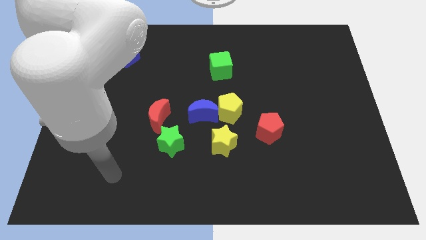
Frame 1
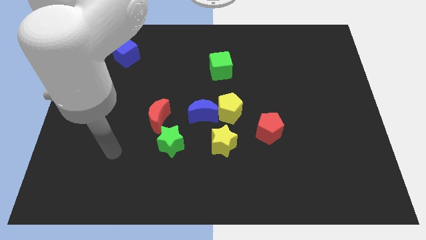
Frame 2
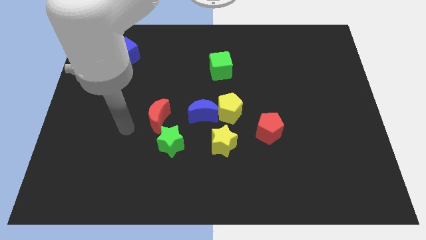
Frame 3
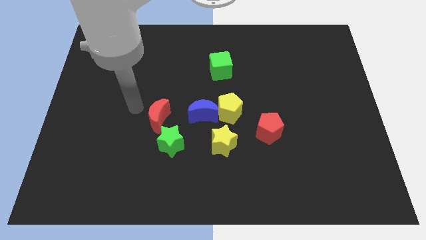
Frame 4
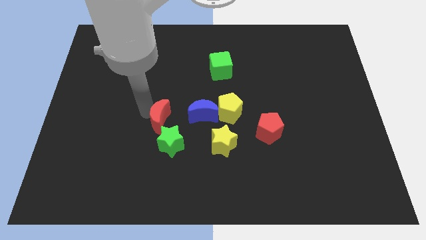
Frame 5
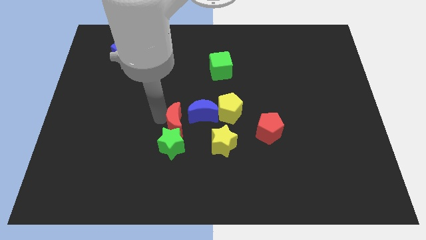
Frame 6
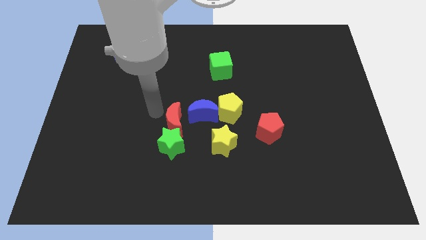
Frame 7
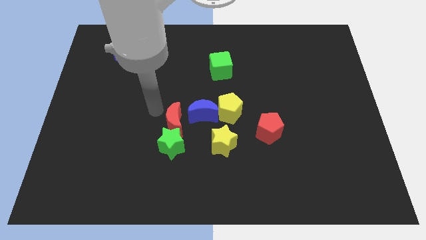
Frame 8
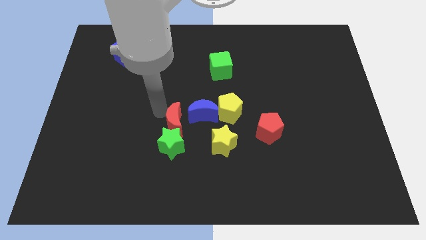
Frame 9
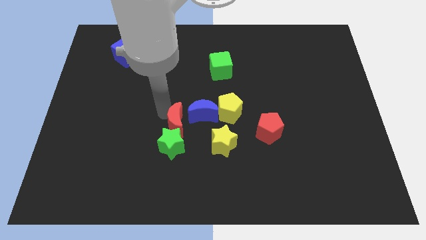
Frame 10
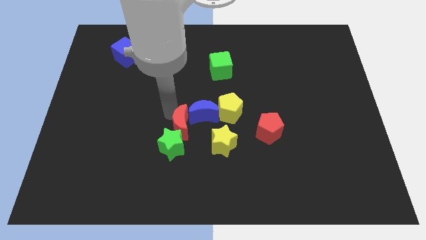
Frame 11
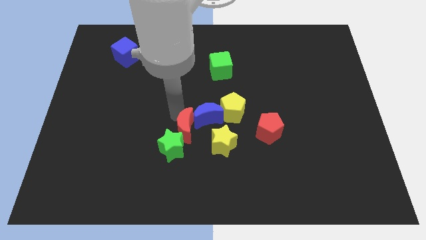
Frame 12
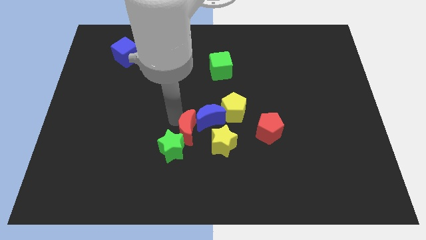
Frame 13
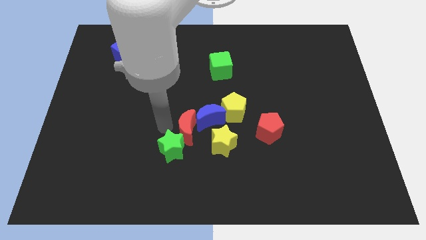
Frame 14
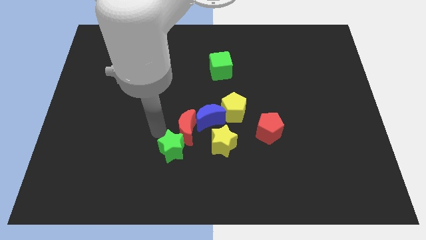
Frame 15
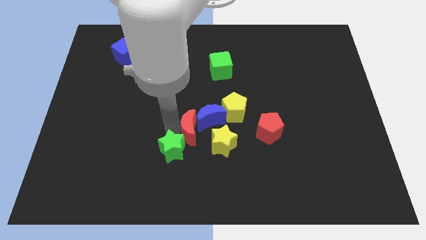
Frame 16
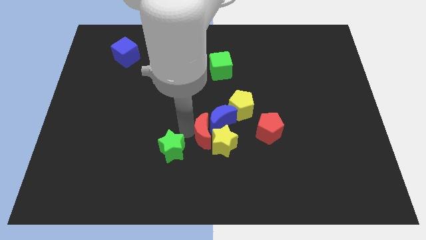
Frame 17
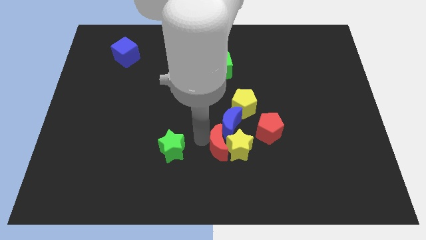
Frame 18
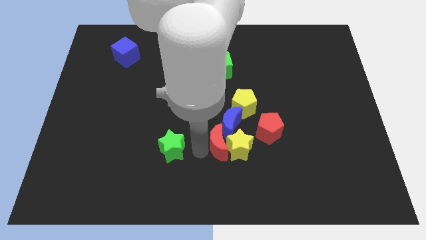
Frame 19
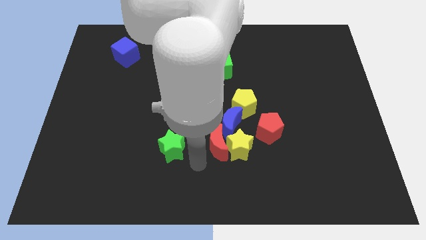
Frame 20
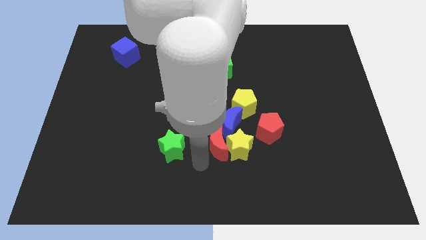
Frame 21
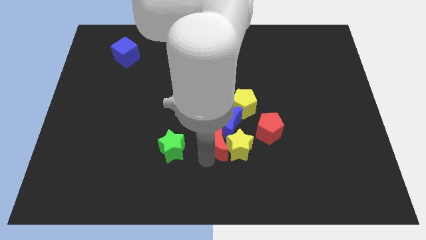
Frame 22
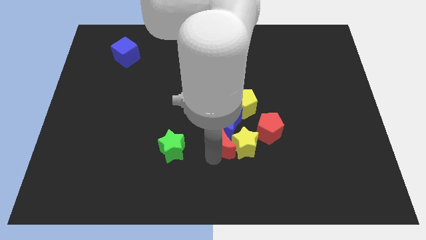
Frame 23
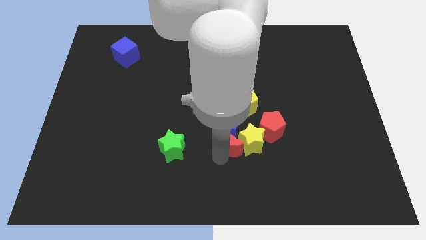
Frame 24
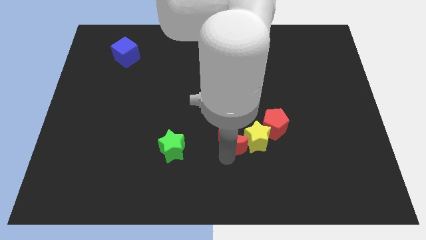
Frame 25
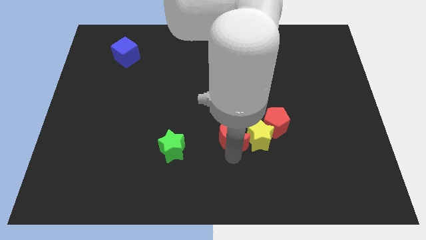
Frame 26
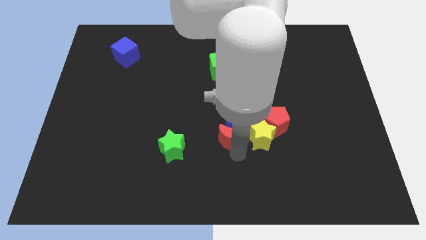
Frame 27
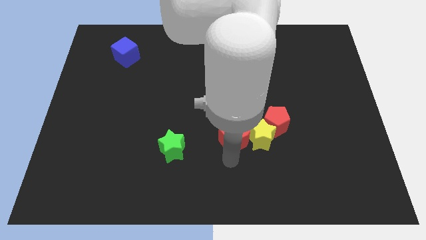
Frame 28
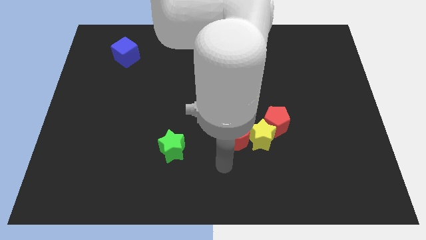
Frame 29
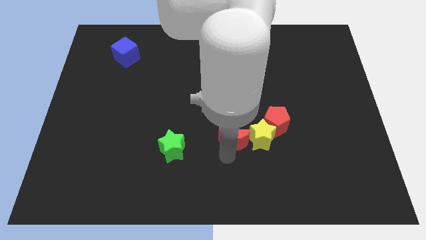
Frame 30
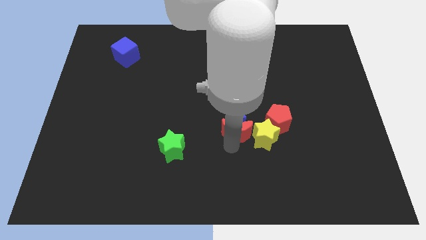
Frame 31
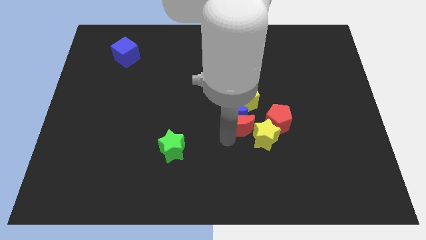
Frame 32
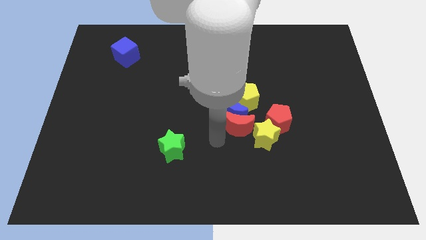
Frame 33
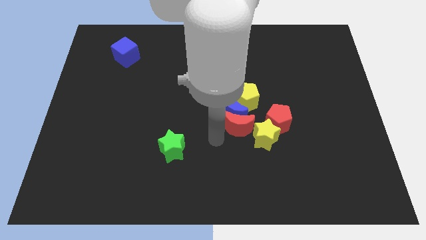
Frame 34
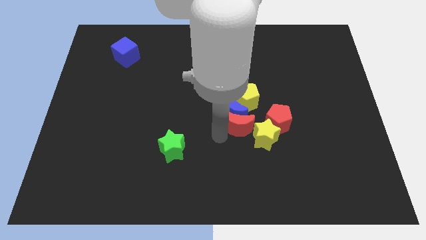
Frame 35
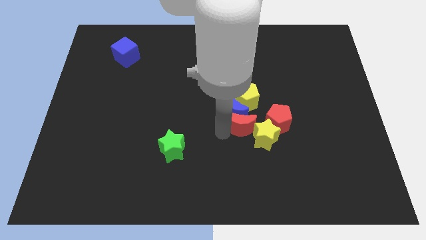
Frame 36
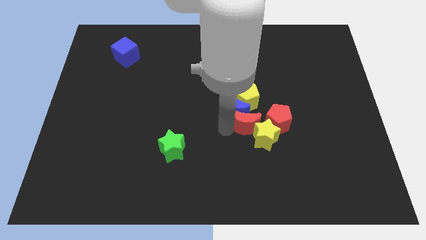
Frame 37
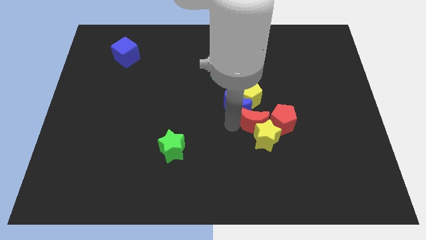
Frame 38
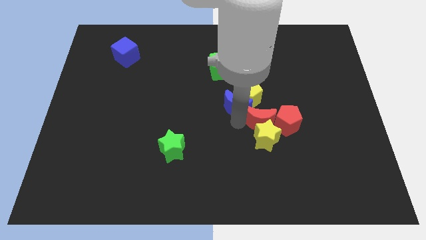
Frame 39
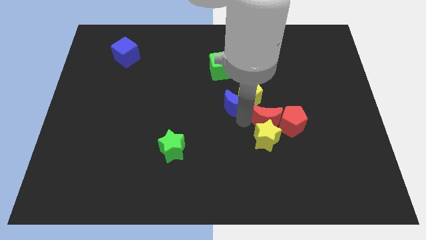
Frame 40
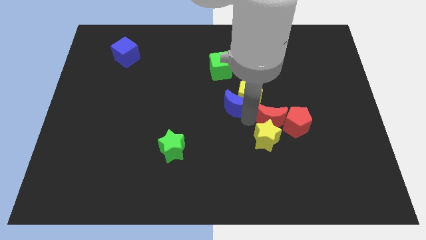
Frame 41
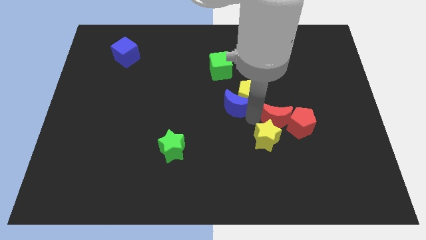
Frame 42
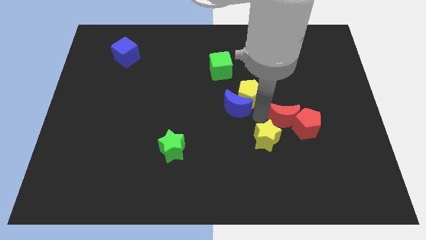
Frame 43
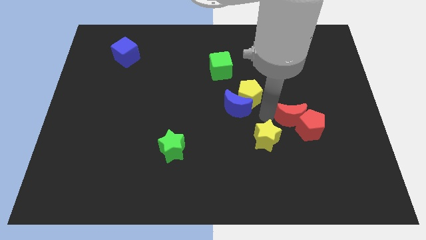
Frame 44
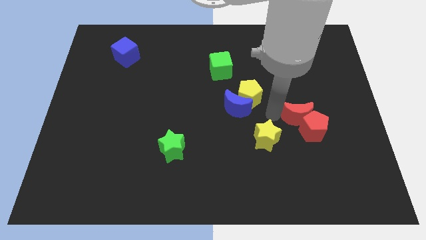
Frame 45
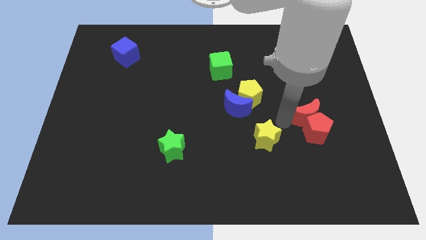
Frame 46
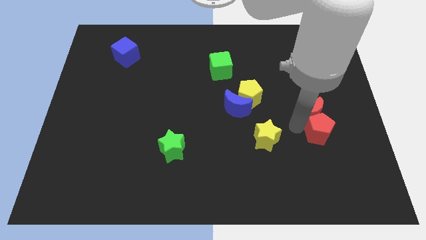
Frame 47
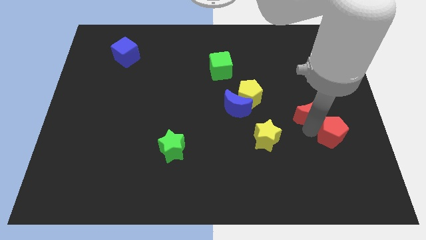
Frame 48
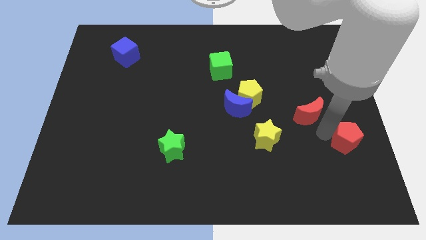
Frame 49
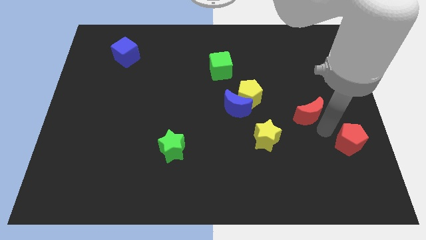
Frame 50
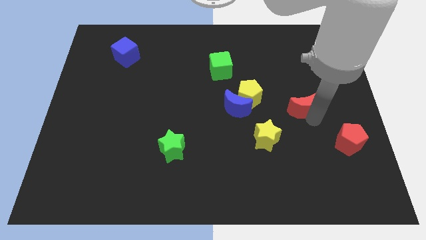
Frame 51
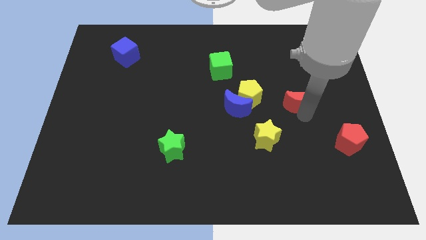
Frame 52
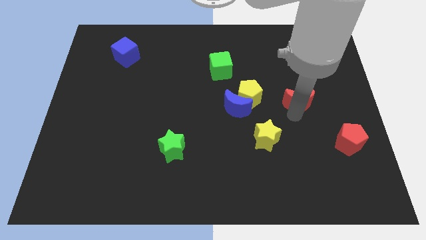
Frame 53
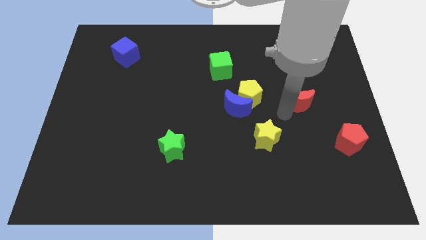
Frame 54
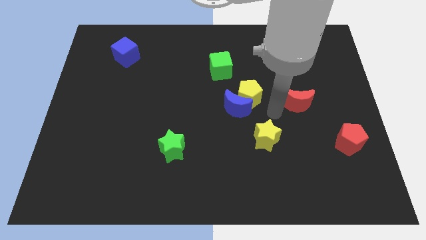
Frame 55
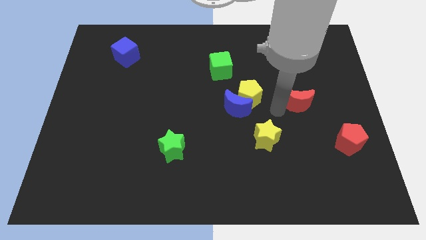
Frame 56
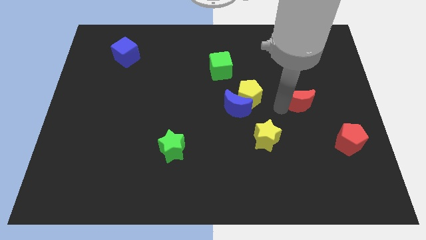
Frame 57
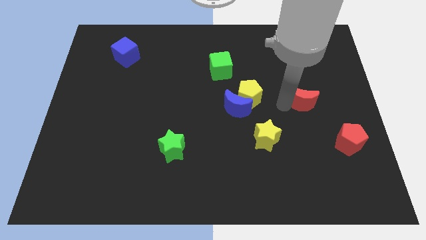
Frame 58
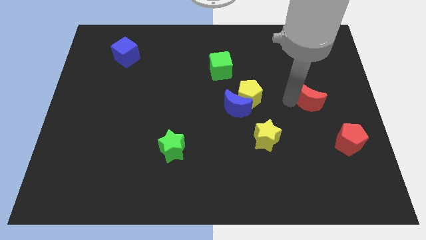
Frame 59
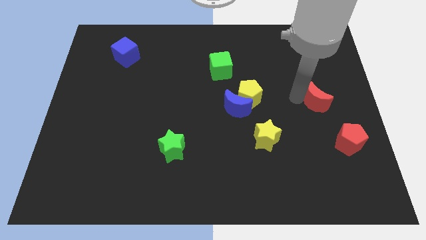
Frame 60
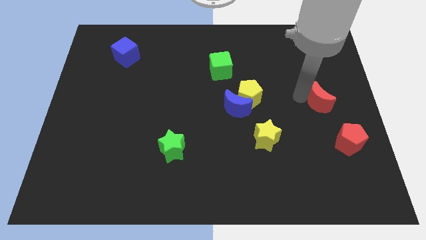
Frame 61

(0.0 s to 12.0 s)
slide the red moon to the right side
